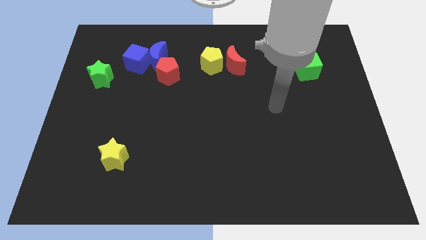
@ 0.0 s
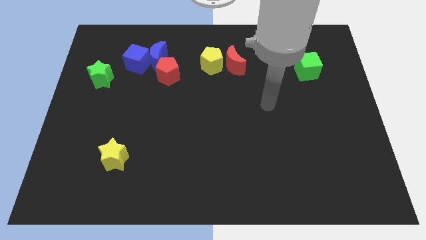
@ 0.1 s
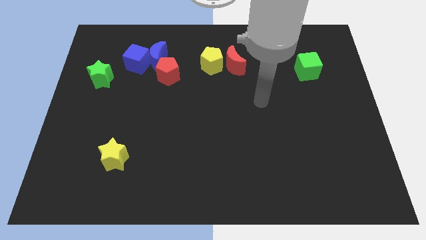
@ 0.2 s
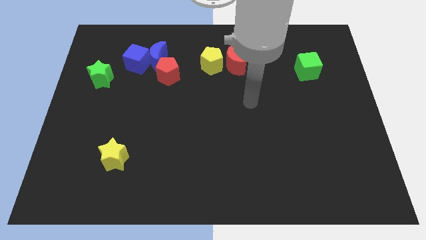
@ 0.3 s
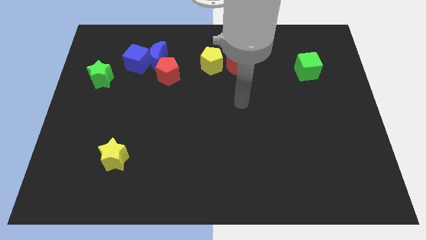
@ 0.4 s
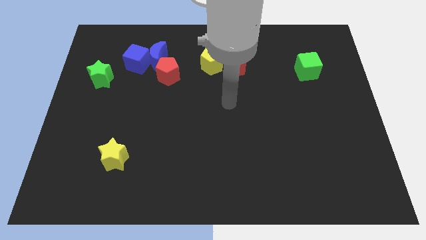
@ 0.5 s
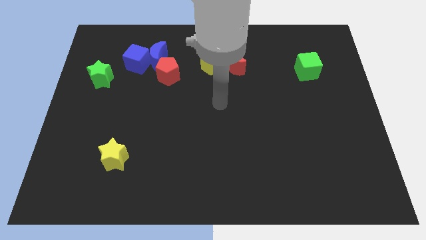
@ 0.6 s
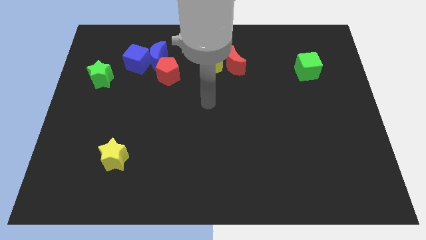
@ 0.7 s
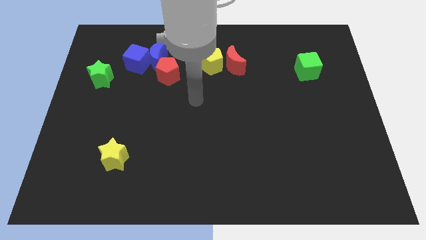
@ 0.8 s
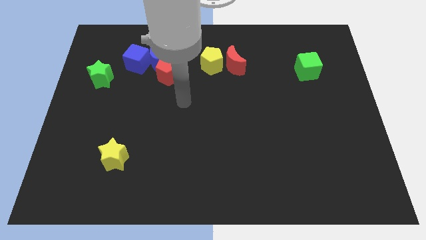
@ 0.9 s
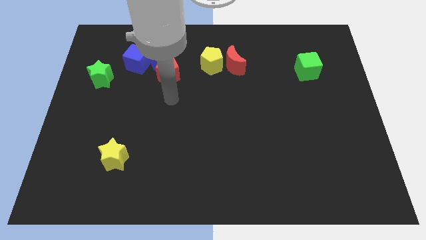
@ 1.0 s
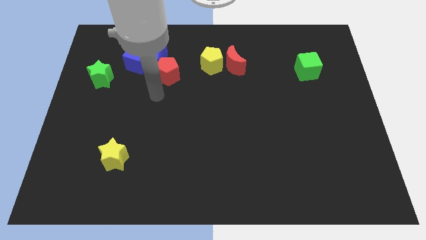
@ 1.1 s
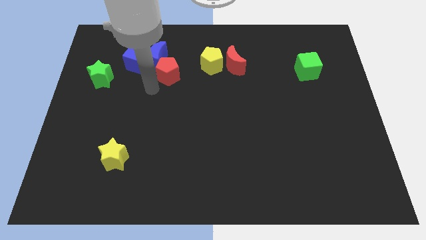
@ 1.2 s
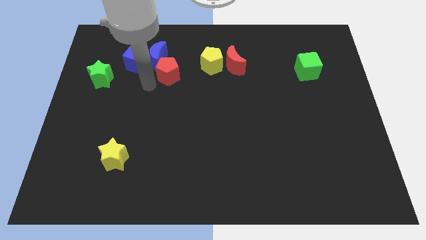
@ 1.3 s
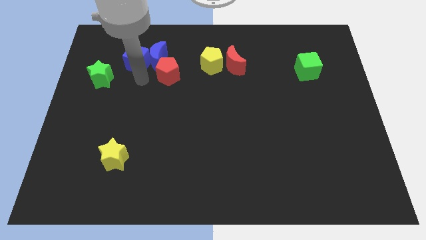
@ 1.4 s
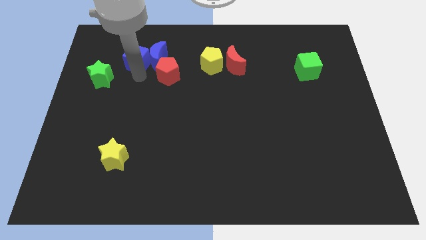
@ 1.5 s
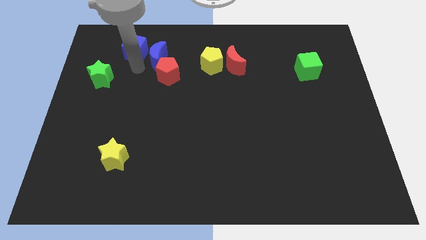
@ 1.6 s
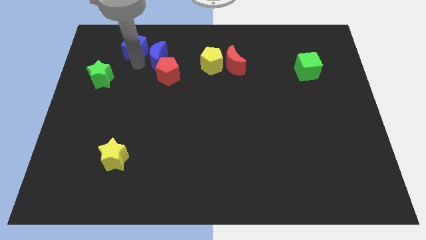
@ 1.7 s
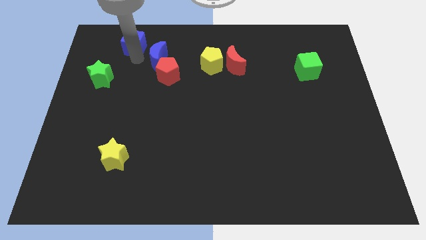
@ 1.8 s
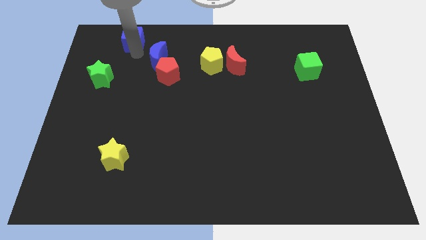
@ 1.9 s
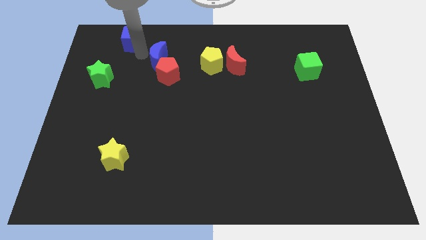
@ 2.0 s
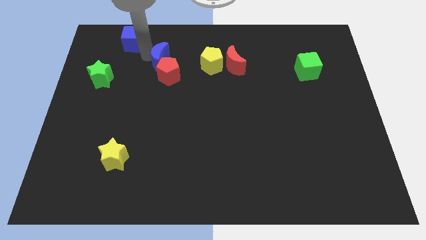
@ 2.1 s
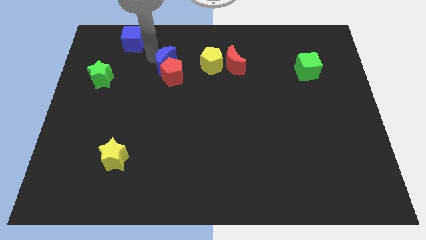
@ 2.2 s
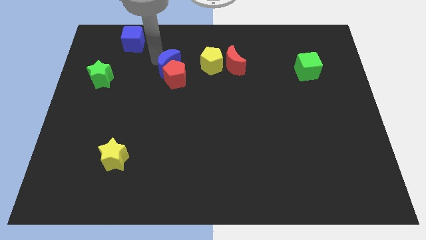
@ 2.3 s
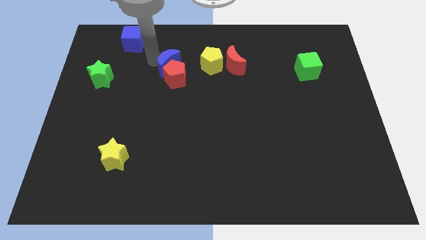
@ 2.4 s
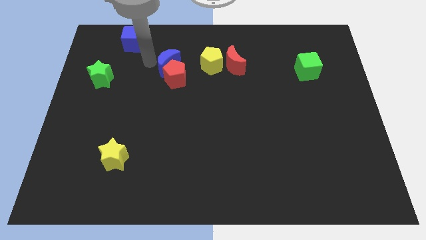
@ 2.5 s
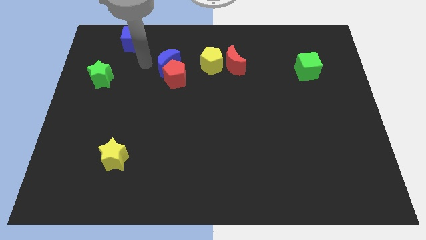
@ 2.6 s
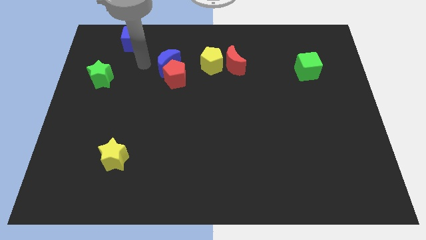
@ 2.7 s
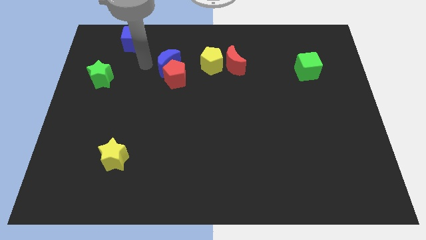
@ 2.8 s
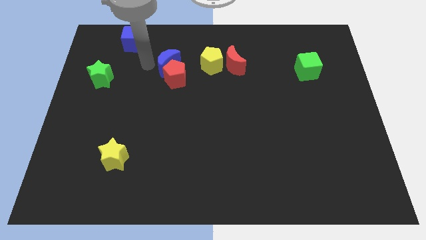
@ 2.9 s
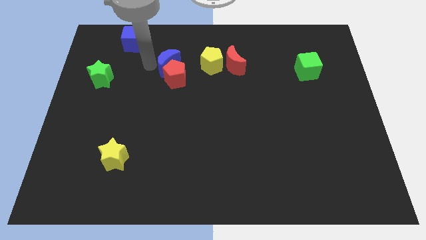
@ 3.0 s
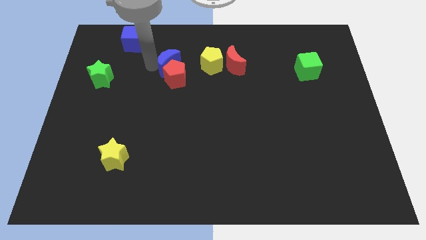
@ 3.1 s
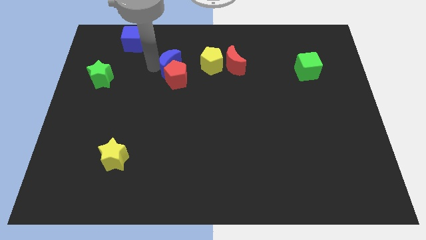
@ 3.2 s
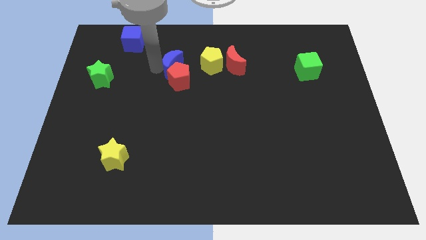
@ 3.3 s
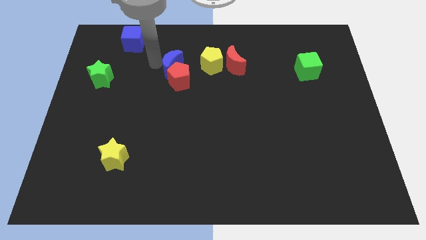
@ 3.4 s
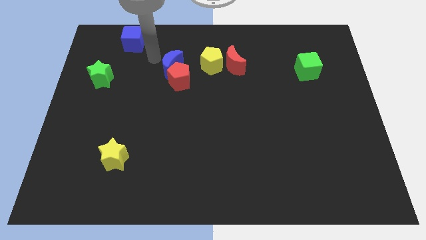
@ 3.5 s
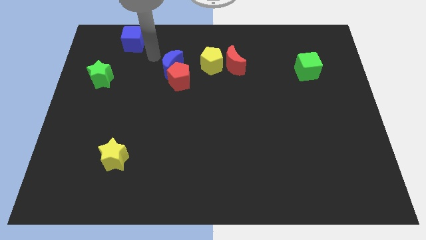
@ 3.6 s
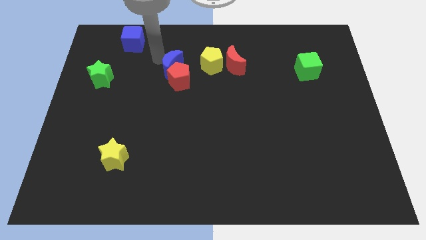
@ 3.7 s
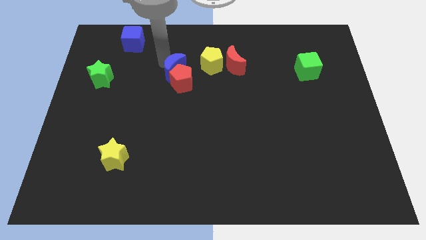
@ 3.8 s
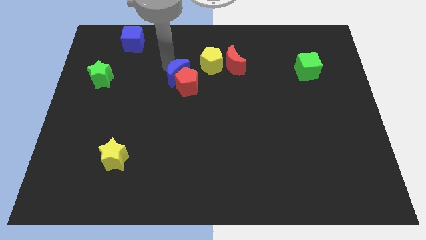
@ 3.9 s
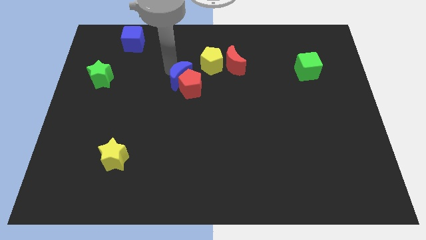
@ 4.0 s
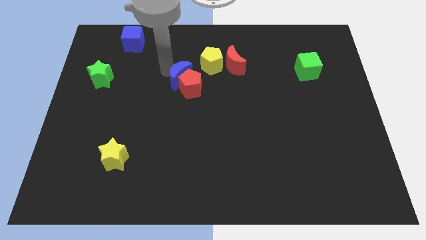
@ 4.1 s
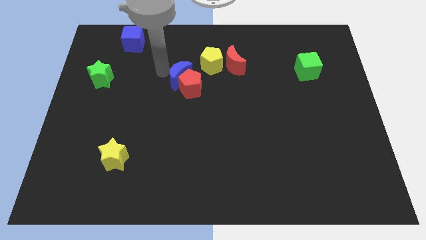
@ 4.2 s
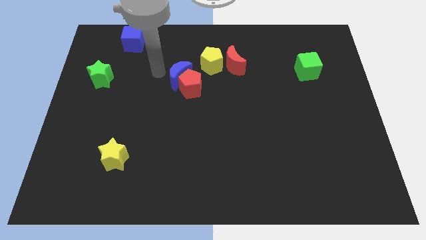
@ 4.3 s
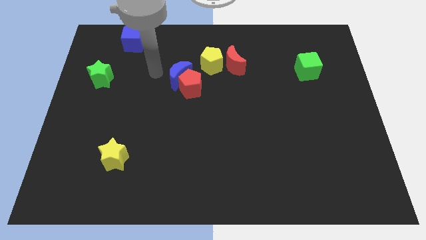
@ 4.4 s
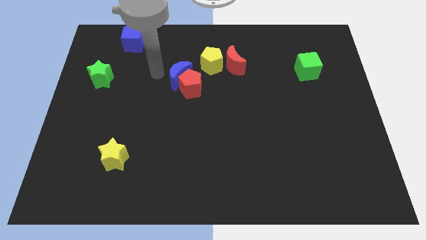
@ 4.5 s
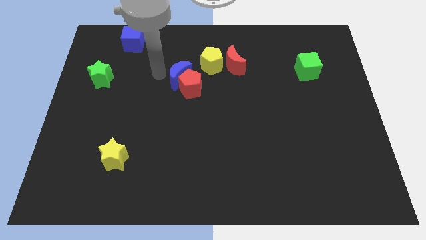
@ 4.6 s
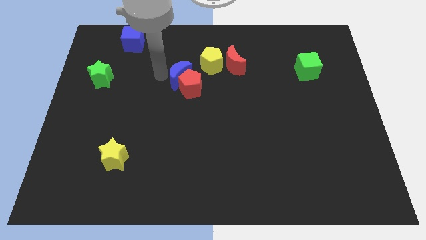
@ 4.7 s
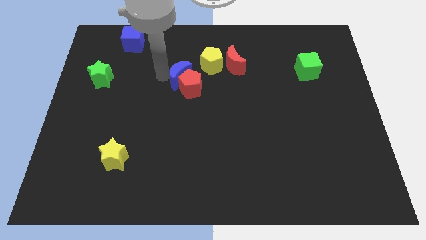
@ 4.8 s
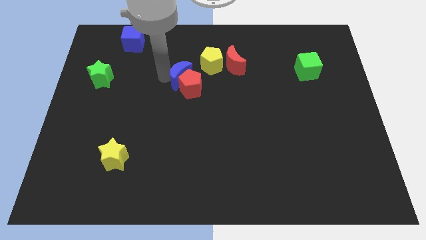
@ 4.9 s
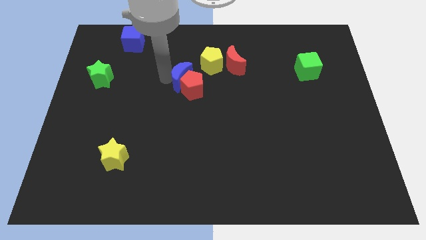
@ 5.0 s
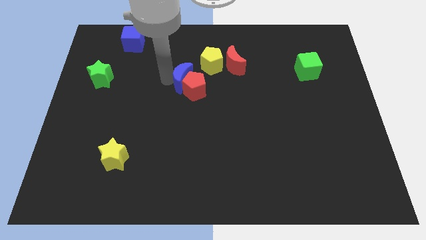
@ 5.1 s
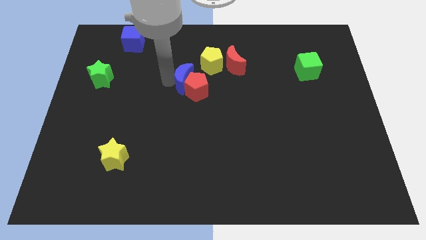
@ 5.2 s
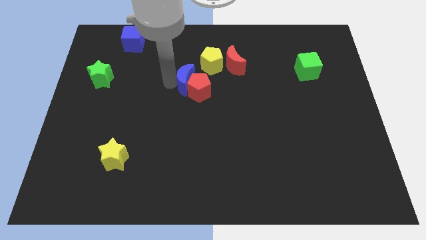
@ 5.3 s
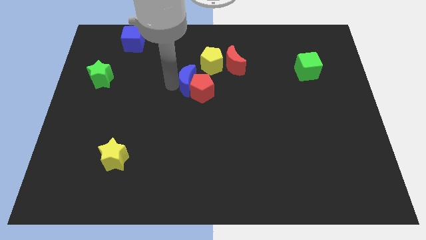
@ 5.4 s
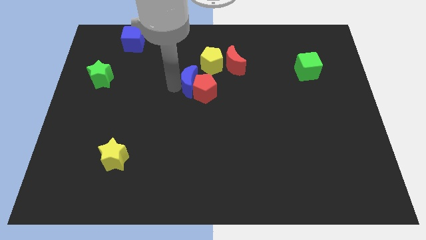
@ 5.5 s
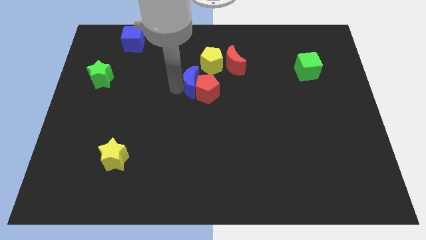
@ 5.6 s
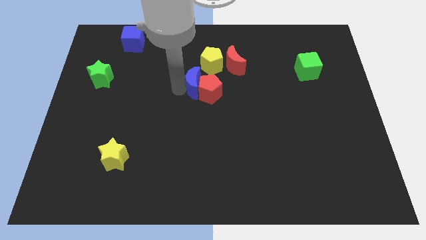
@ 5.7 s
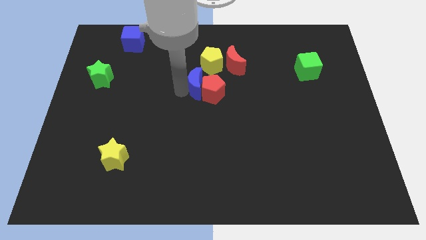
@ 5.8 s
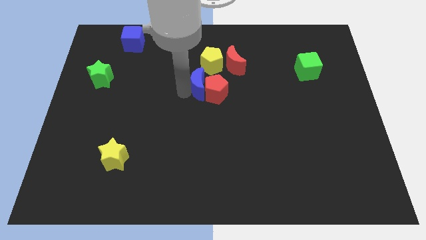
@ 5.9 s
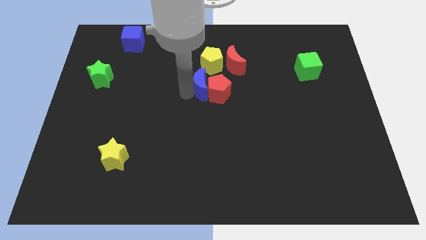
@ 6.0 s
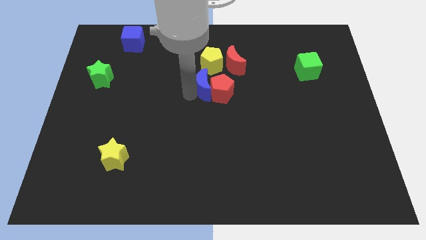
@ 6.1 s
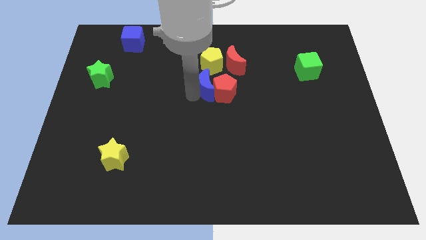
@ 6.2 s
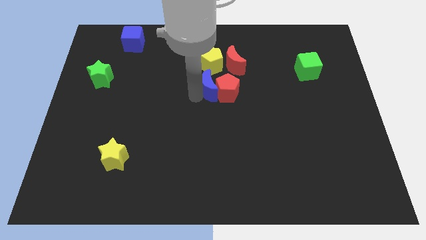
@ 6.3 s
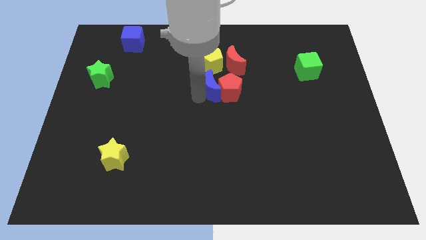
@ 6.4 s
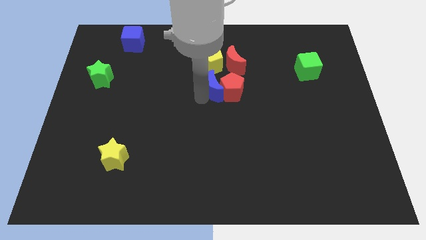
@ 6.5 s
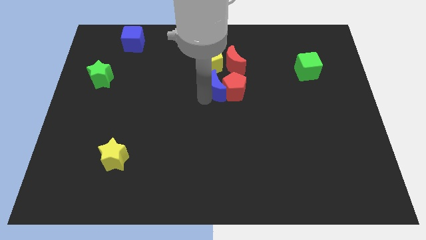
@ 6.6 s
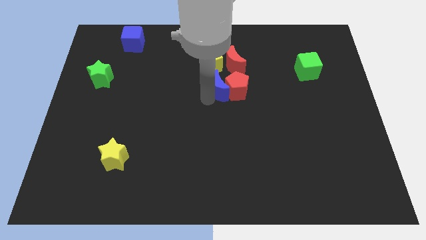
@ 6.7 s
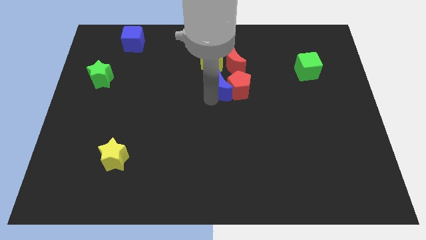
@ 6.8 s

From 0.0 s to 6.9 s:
move the blue moon to the bottom right side of the yellow pentagon

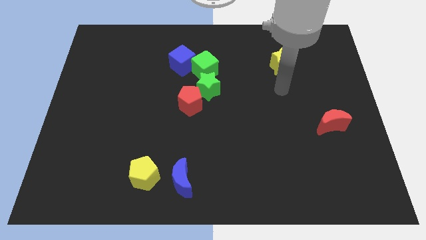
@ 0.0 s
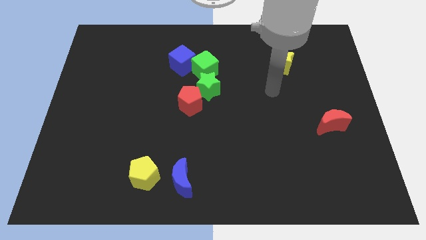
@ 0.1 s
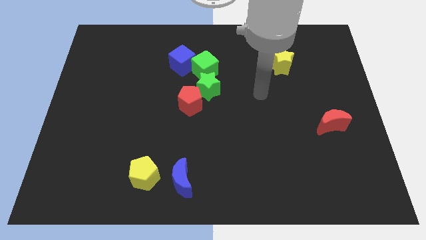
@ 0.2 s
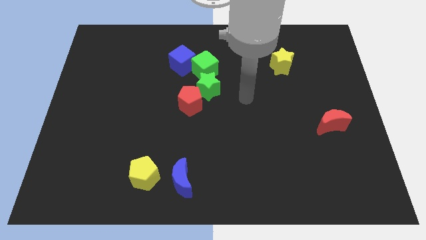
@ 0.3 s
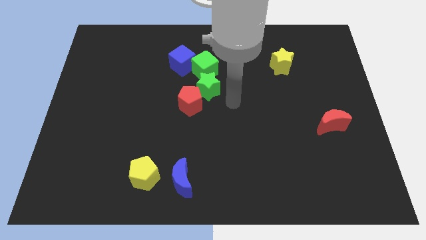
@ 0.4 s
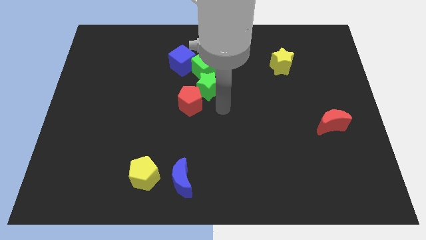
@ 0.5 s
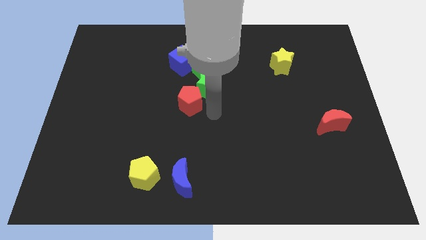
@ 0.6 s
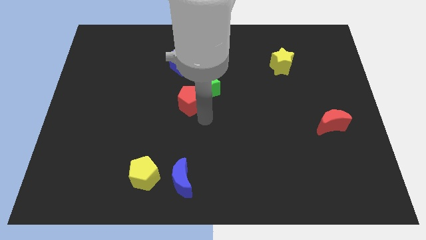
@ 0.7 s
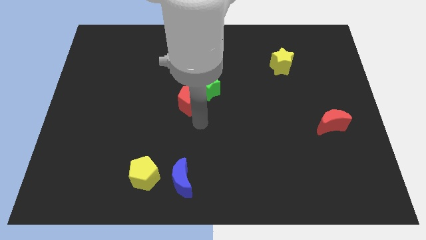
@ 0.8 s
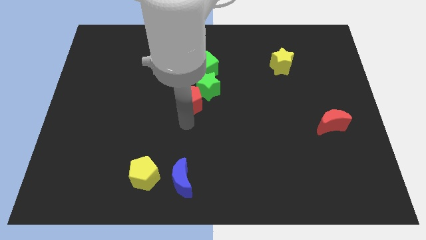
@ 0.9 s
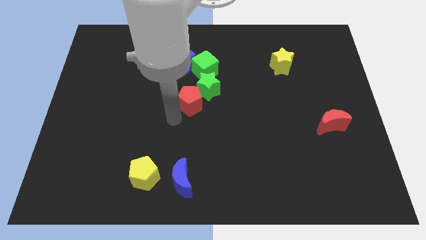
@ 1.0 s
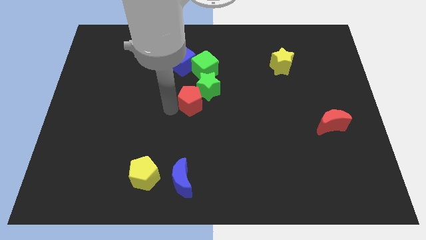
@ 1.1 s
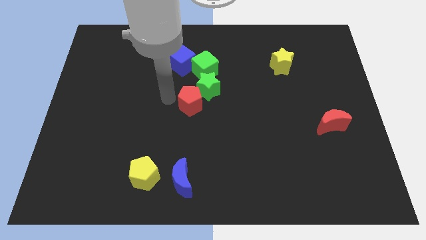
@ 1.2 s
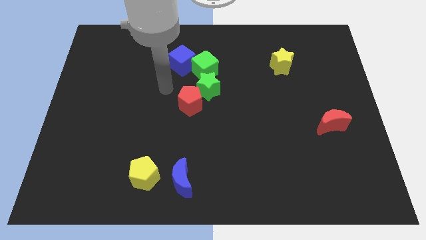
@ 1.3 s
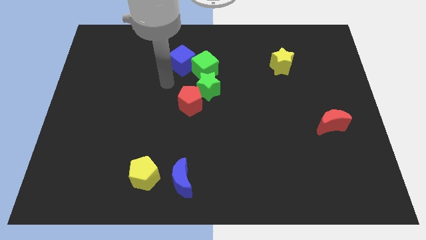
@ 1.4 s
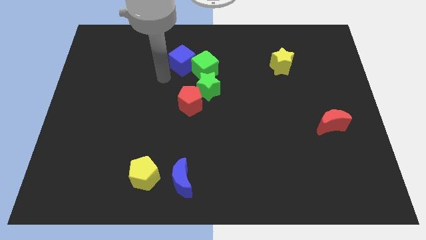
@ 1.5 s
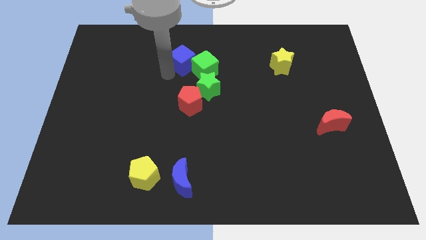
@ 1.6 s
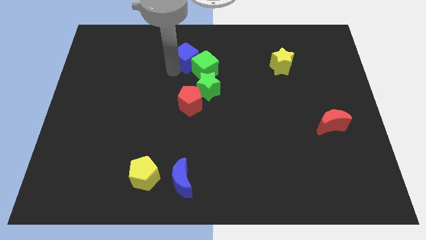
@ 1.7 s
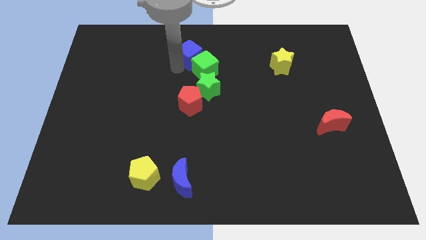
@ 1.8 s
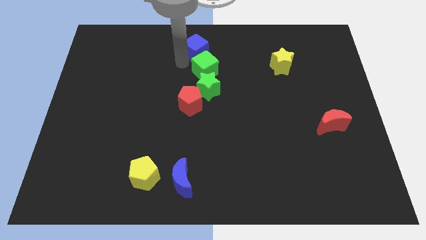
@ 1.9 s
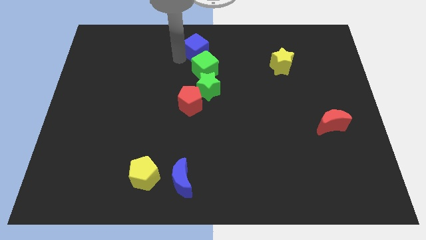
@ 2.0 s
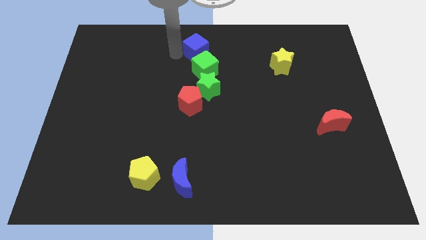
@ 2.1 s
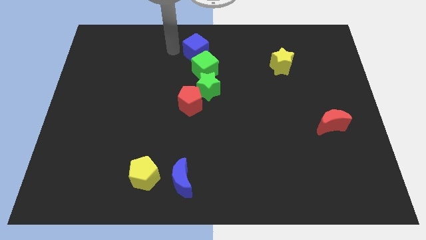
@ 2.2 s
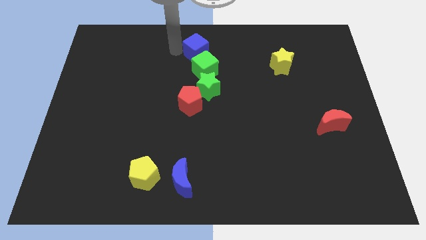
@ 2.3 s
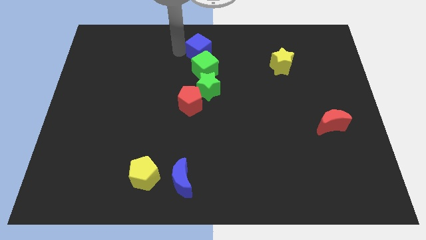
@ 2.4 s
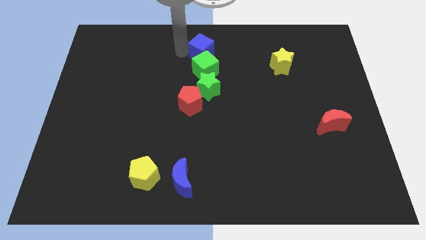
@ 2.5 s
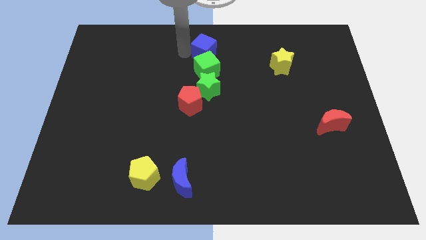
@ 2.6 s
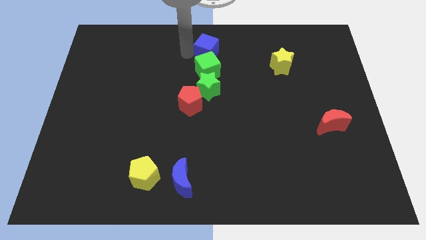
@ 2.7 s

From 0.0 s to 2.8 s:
slide the blue cube to the top right side of the green cube
